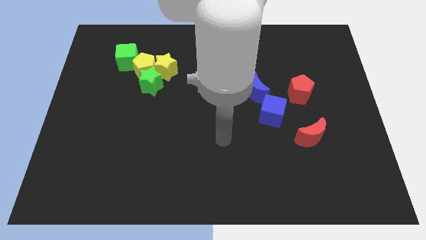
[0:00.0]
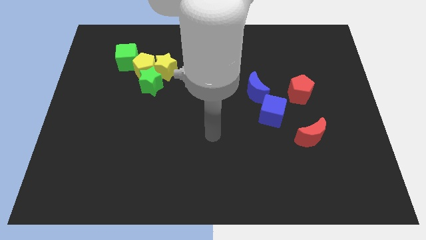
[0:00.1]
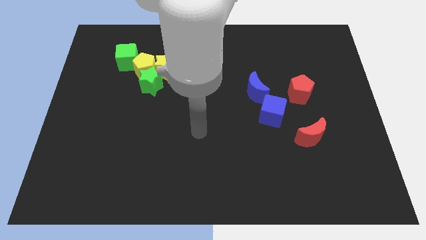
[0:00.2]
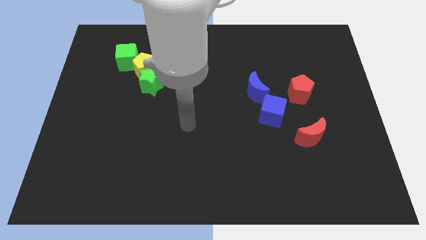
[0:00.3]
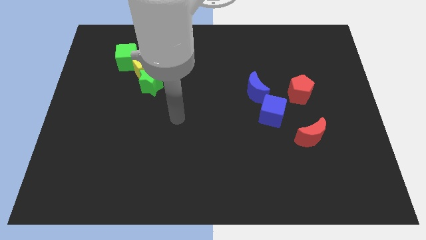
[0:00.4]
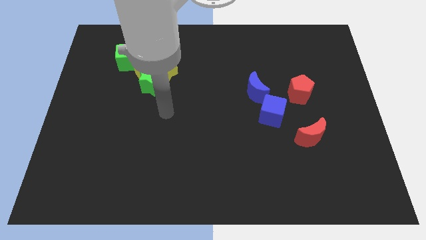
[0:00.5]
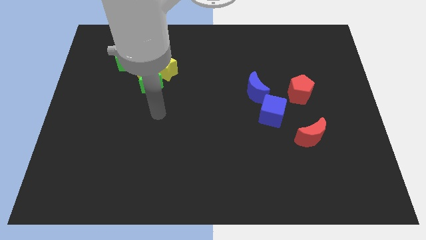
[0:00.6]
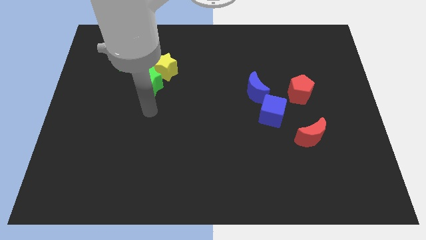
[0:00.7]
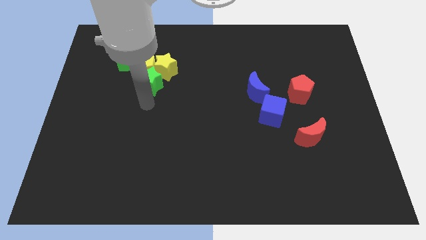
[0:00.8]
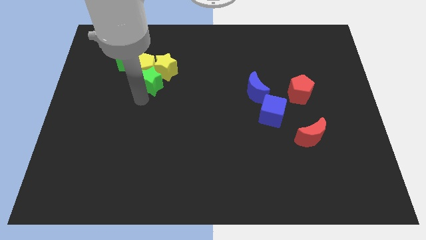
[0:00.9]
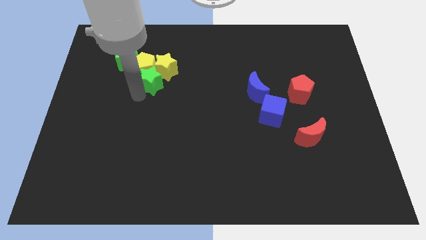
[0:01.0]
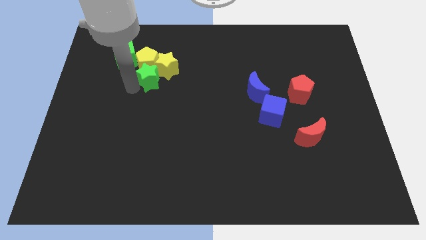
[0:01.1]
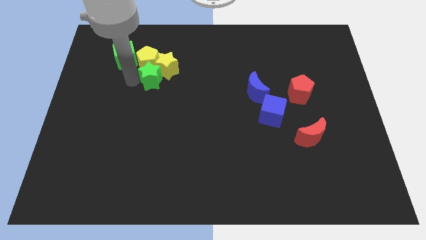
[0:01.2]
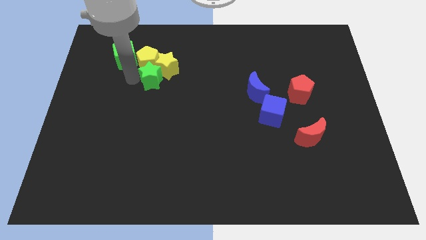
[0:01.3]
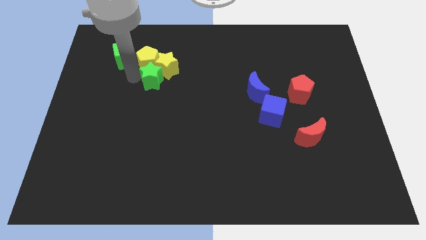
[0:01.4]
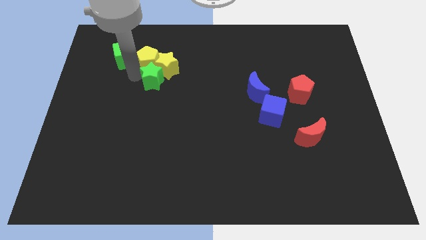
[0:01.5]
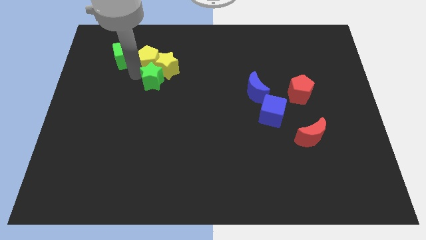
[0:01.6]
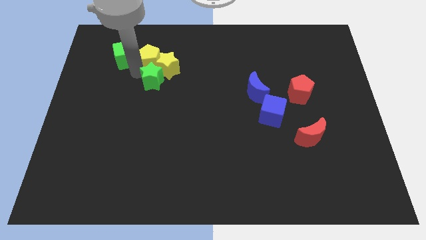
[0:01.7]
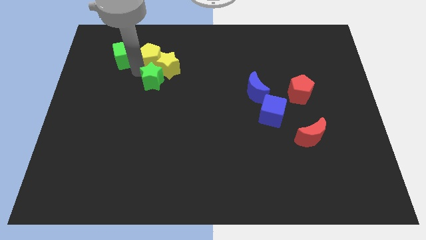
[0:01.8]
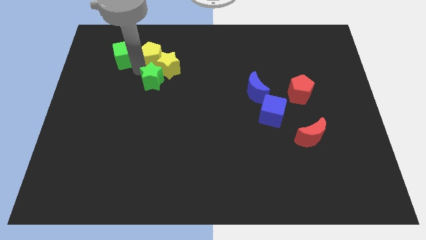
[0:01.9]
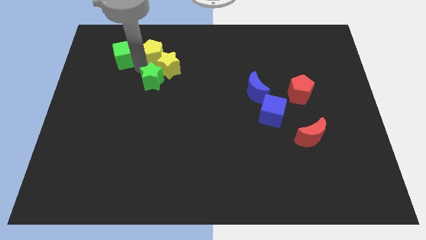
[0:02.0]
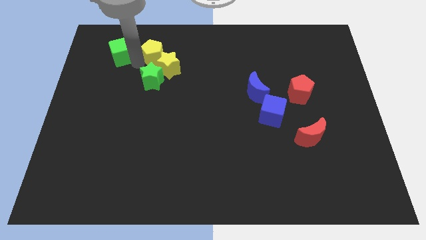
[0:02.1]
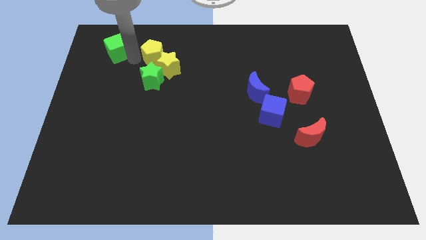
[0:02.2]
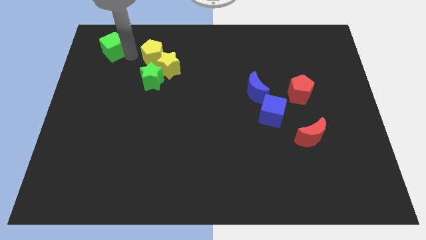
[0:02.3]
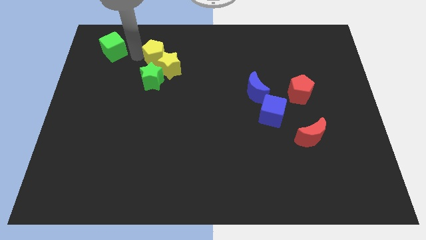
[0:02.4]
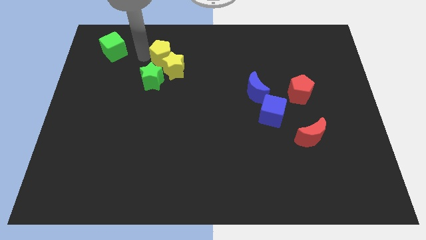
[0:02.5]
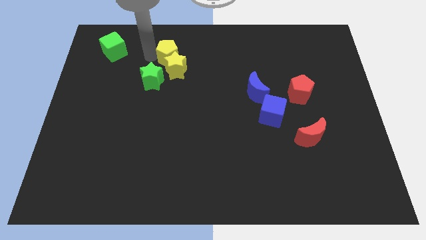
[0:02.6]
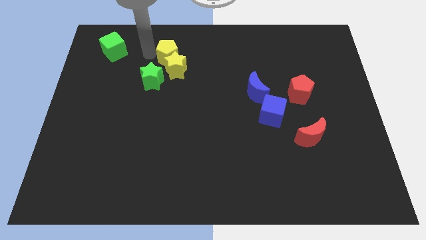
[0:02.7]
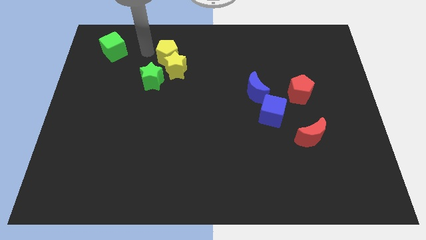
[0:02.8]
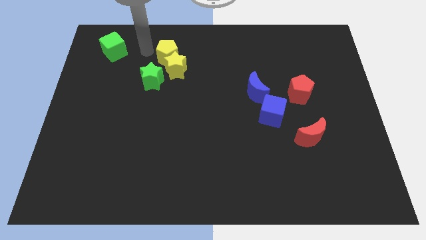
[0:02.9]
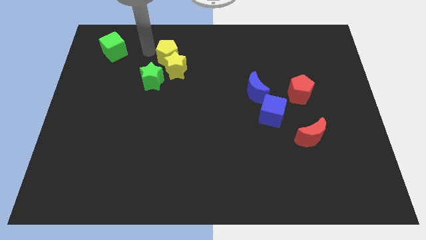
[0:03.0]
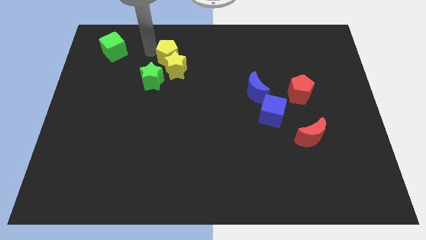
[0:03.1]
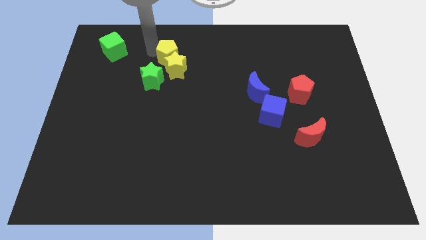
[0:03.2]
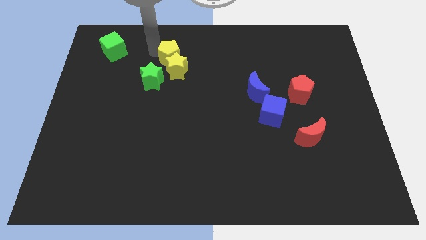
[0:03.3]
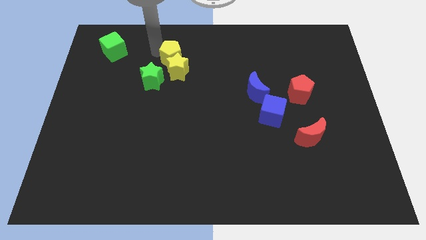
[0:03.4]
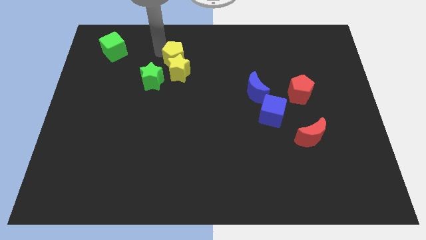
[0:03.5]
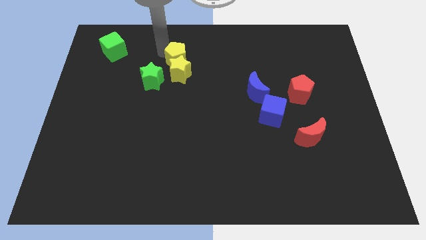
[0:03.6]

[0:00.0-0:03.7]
slide the yellow pentagon slightly right

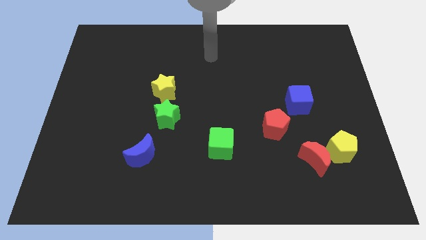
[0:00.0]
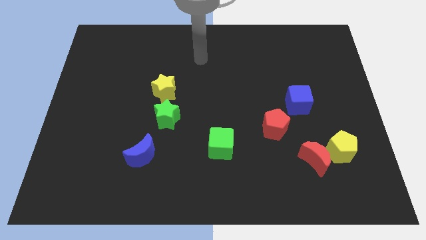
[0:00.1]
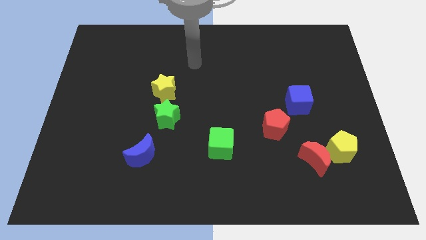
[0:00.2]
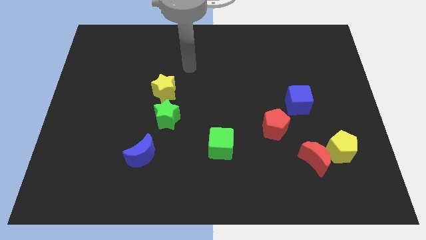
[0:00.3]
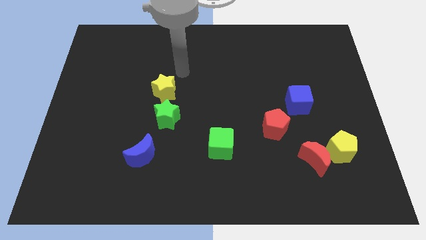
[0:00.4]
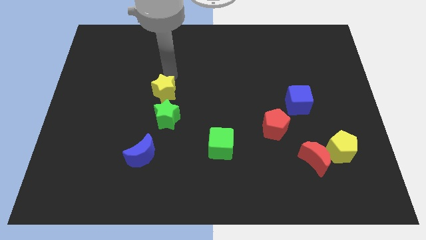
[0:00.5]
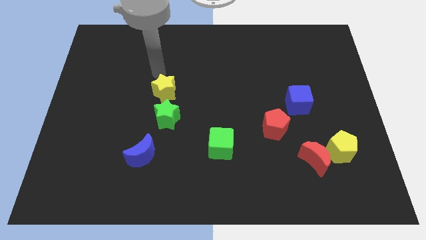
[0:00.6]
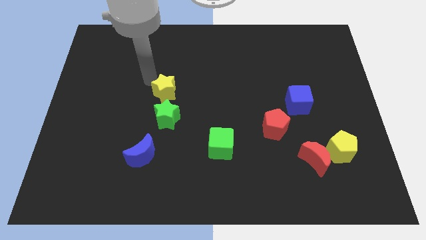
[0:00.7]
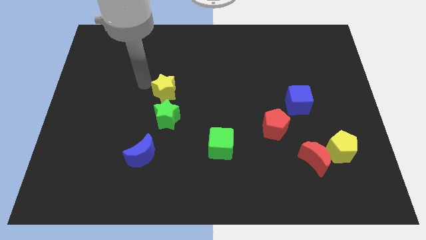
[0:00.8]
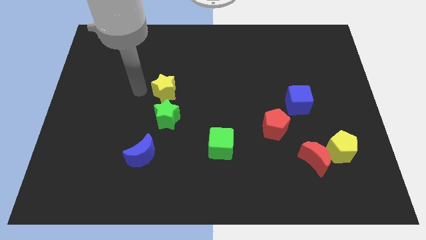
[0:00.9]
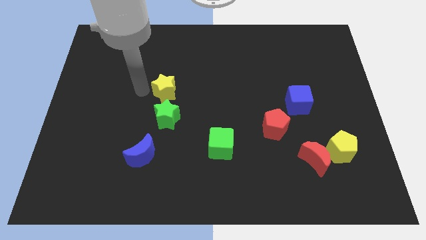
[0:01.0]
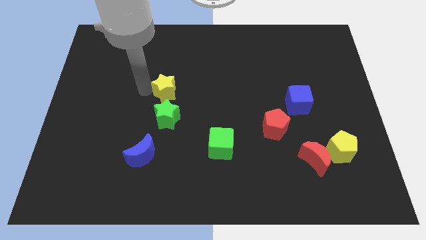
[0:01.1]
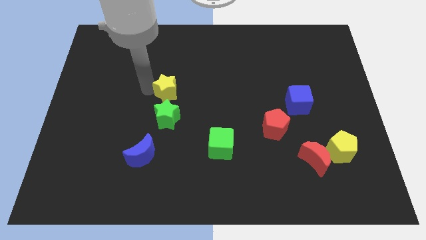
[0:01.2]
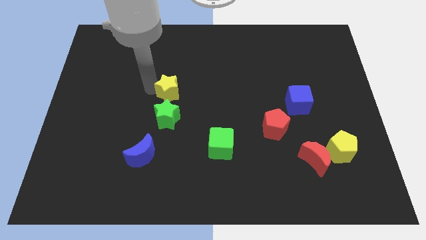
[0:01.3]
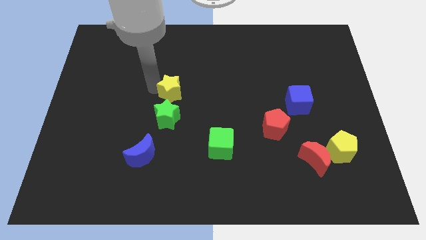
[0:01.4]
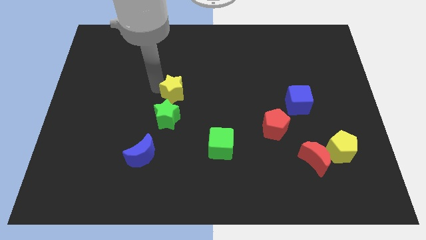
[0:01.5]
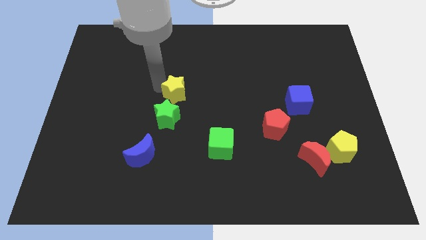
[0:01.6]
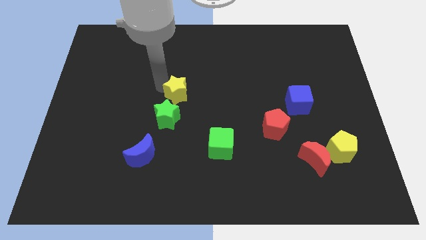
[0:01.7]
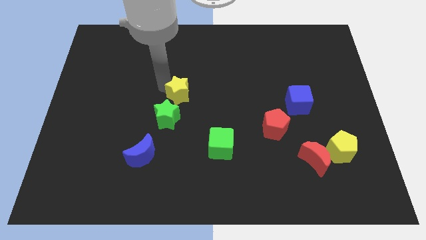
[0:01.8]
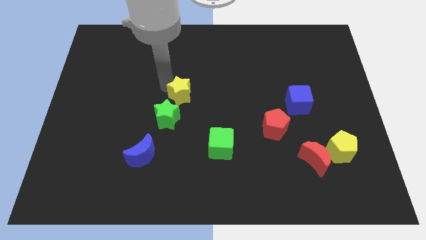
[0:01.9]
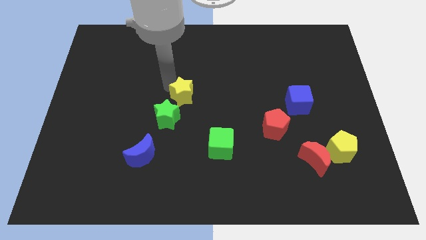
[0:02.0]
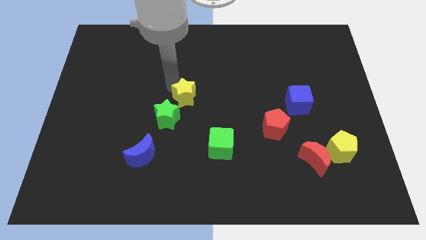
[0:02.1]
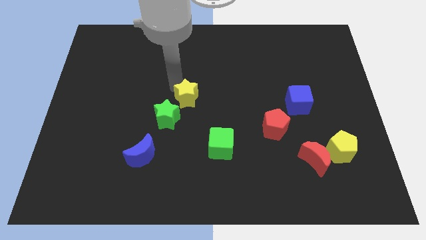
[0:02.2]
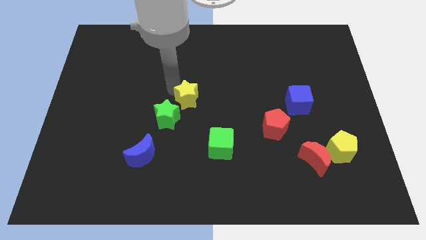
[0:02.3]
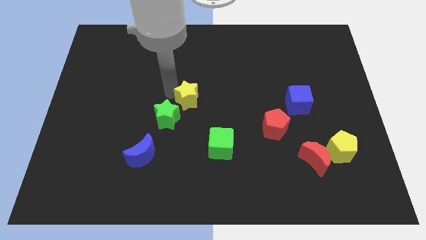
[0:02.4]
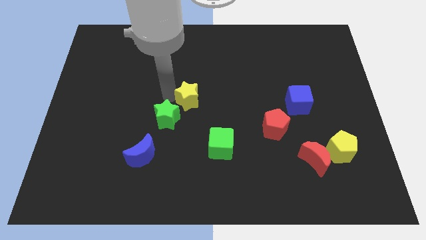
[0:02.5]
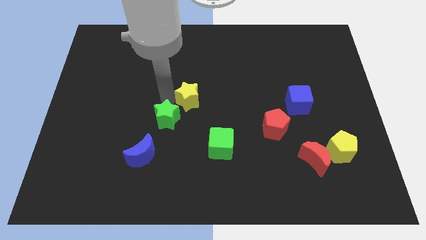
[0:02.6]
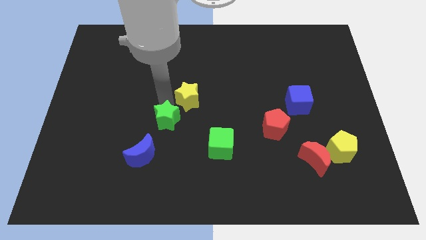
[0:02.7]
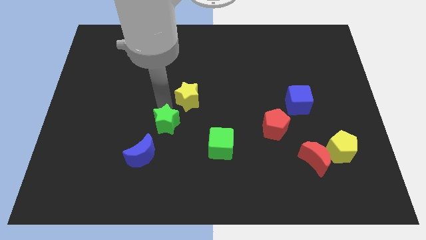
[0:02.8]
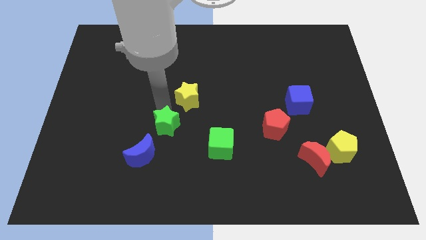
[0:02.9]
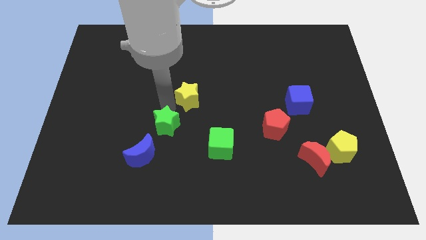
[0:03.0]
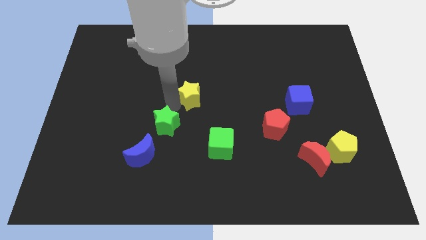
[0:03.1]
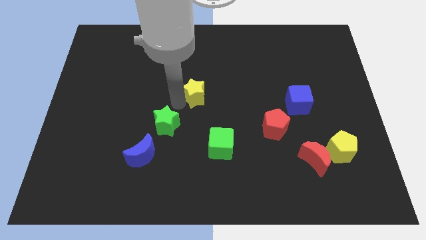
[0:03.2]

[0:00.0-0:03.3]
slightly slide the yellow star right

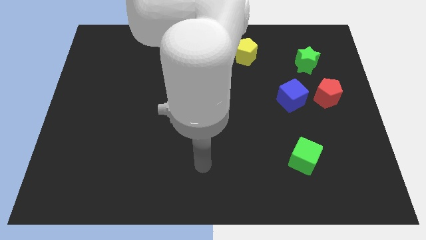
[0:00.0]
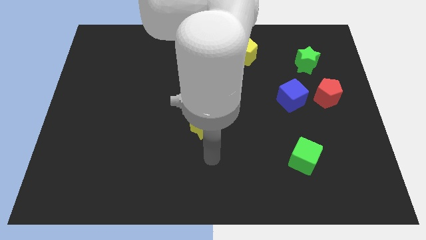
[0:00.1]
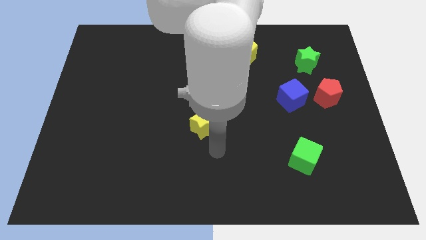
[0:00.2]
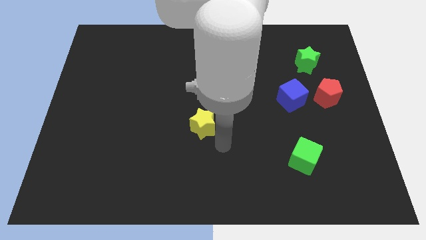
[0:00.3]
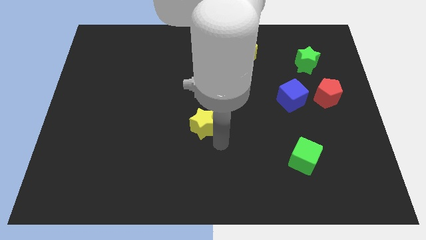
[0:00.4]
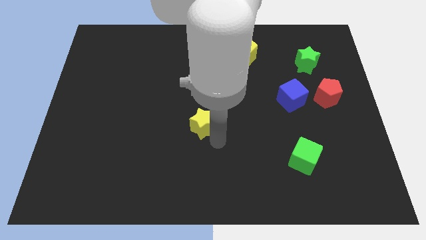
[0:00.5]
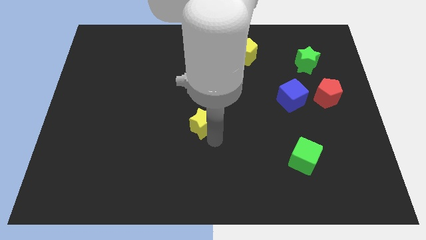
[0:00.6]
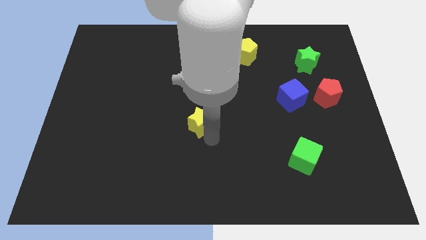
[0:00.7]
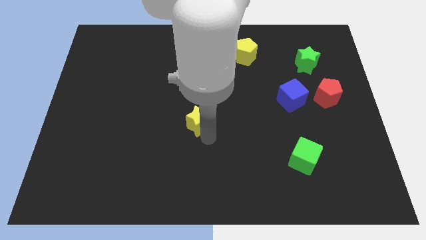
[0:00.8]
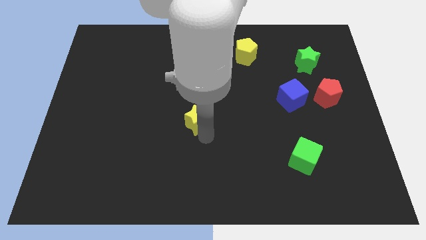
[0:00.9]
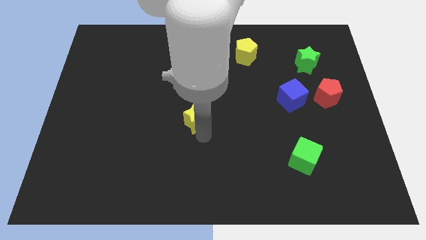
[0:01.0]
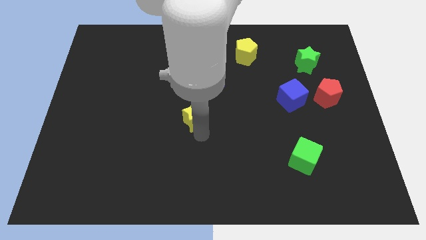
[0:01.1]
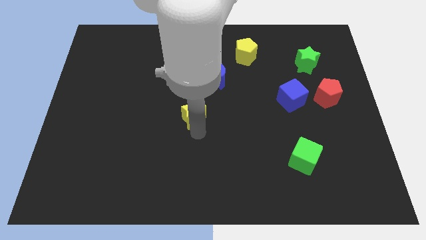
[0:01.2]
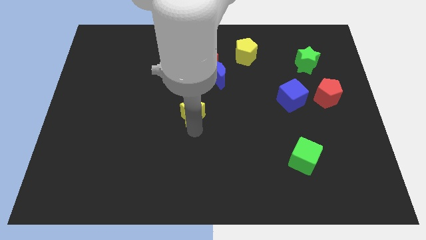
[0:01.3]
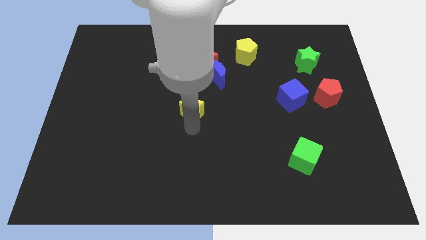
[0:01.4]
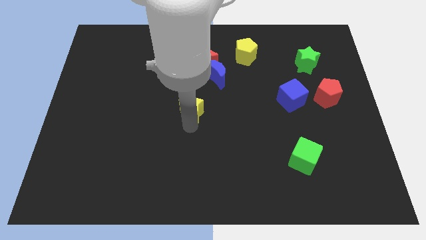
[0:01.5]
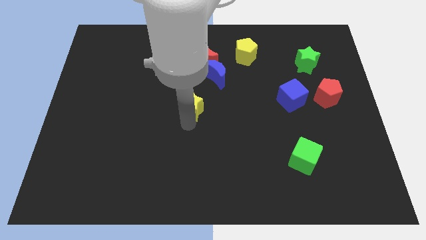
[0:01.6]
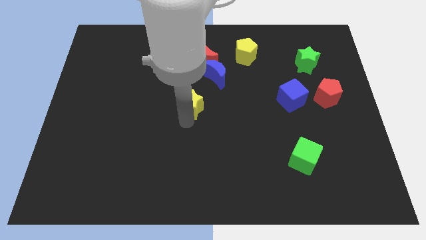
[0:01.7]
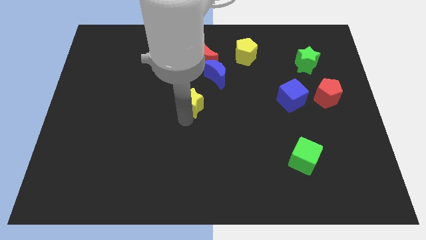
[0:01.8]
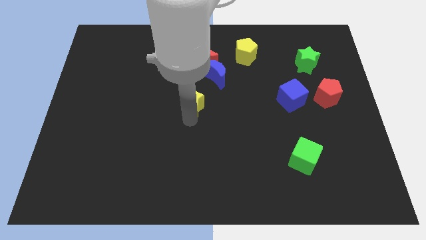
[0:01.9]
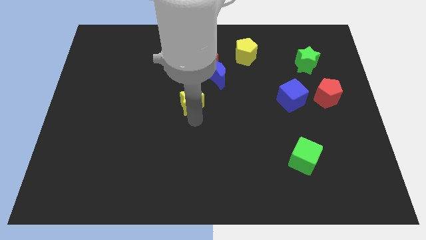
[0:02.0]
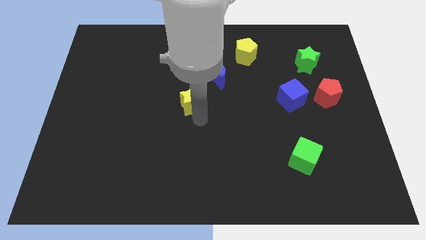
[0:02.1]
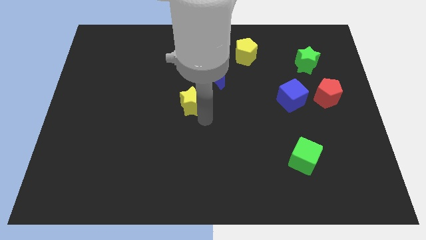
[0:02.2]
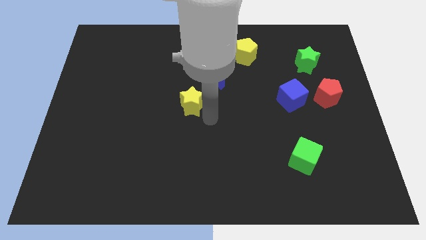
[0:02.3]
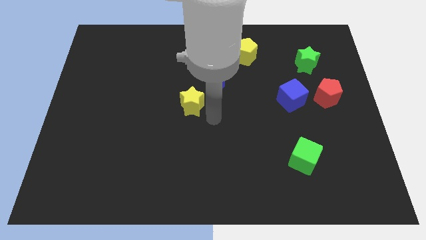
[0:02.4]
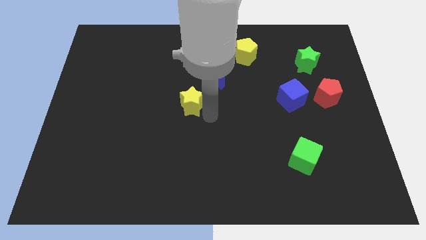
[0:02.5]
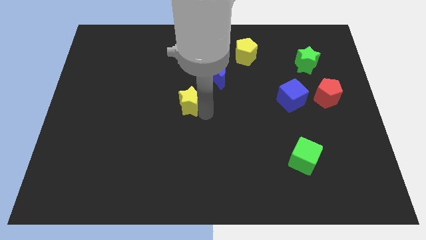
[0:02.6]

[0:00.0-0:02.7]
move the yellow star a bit diagonally upwards and to the left
